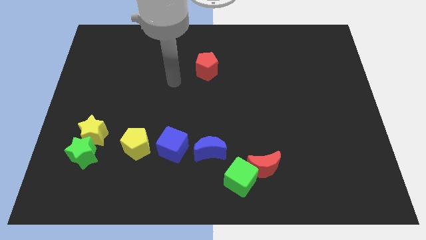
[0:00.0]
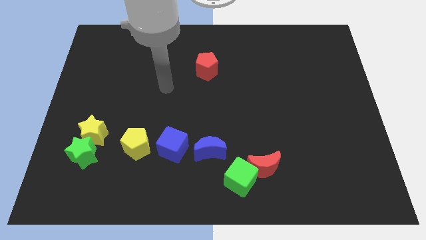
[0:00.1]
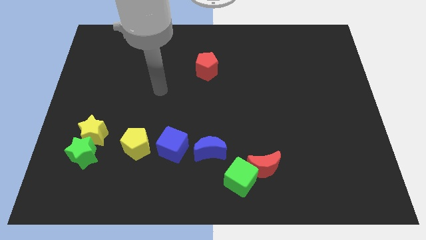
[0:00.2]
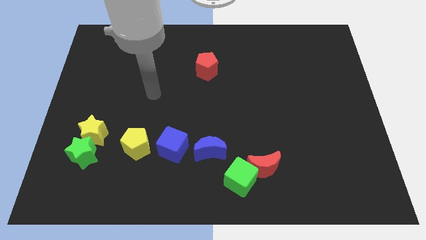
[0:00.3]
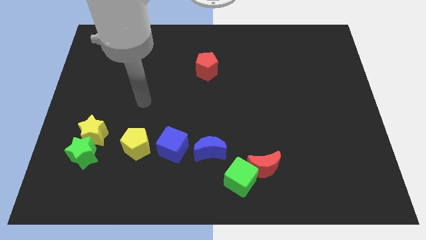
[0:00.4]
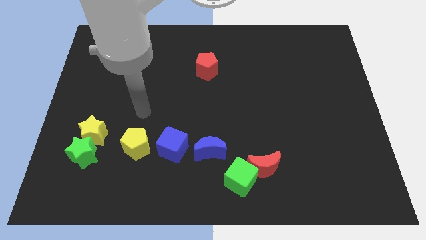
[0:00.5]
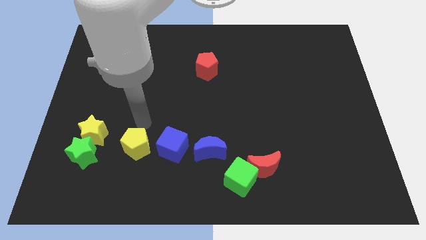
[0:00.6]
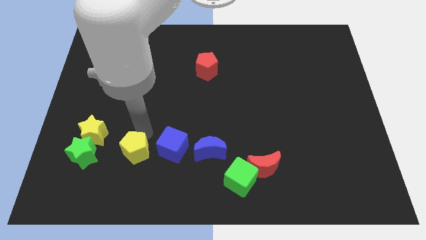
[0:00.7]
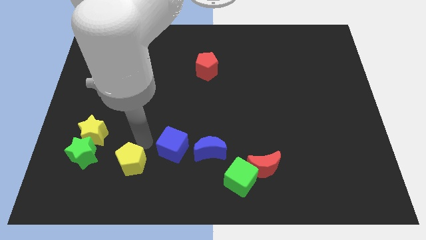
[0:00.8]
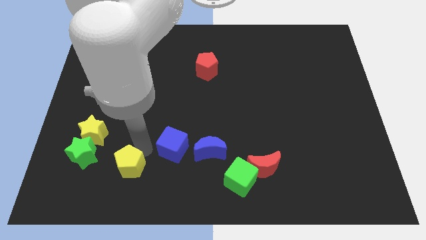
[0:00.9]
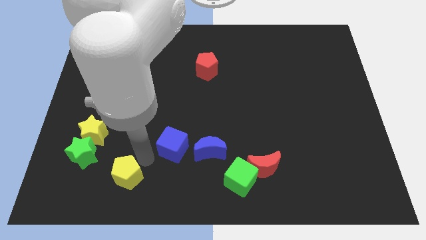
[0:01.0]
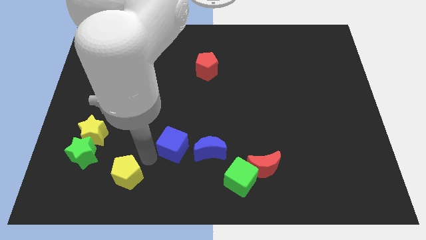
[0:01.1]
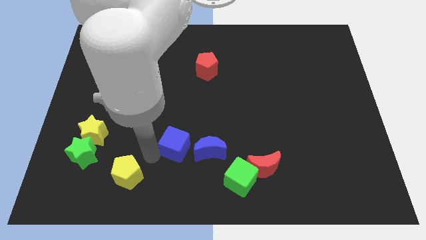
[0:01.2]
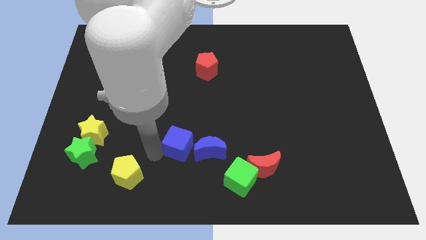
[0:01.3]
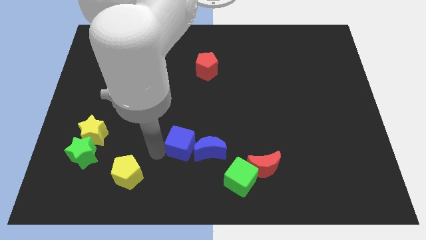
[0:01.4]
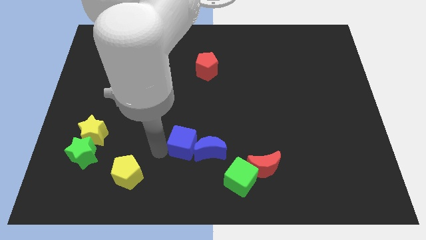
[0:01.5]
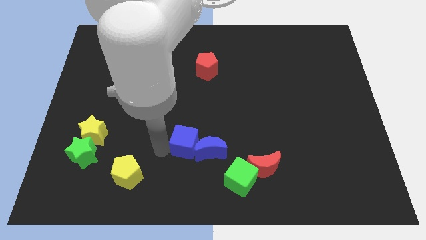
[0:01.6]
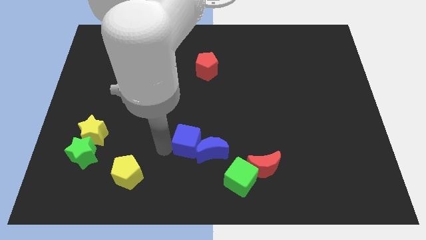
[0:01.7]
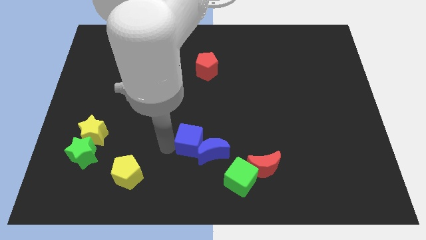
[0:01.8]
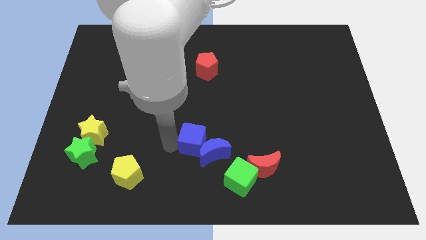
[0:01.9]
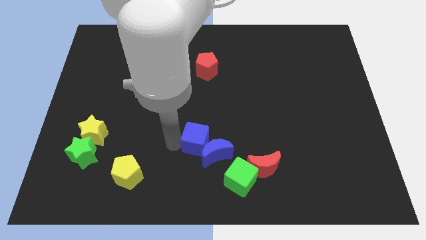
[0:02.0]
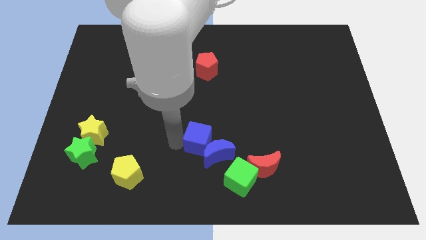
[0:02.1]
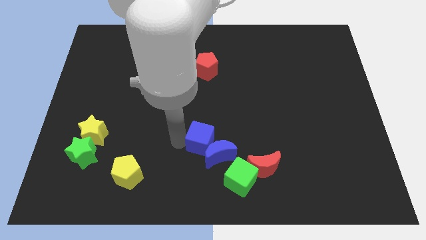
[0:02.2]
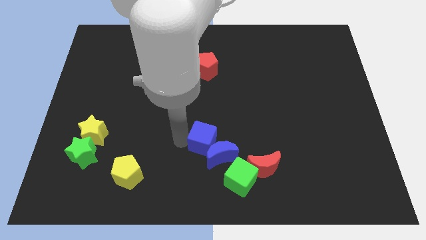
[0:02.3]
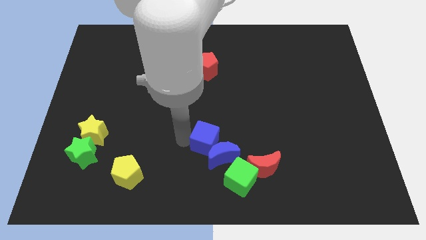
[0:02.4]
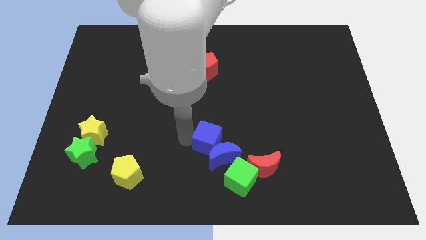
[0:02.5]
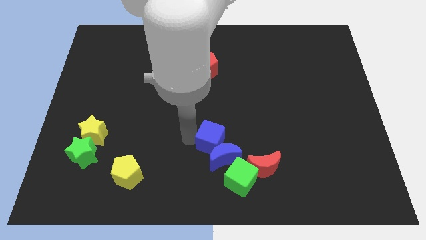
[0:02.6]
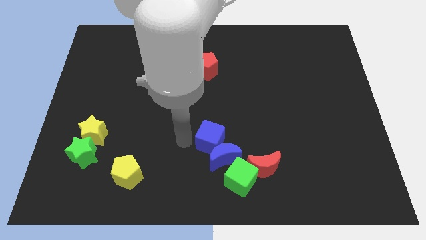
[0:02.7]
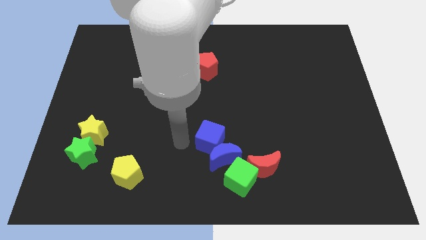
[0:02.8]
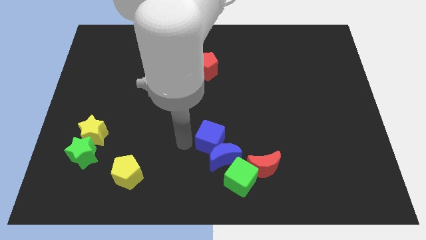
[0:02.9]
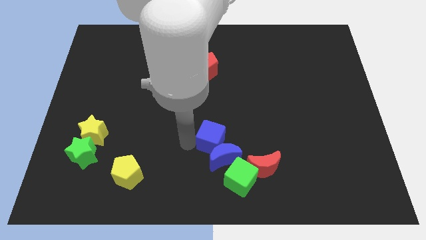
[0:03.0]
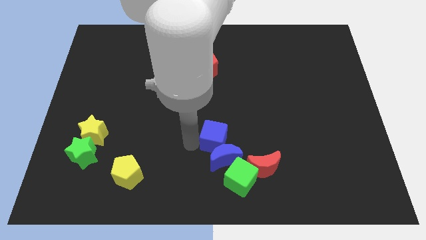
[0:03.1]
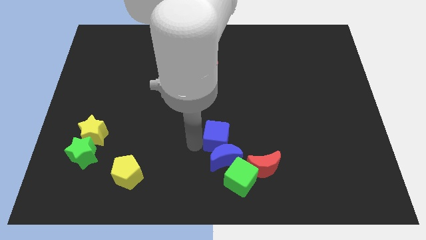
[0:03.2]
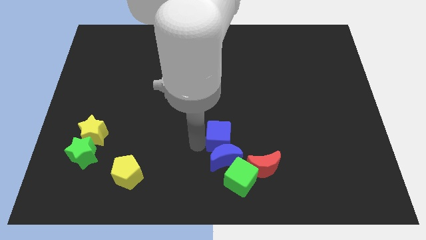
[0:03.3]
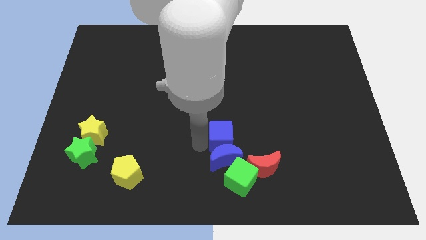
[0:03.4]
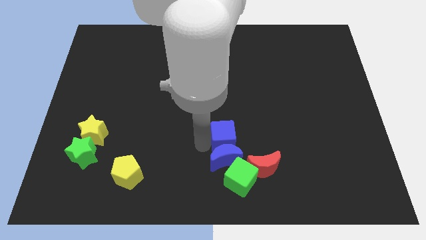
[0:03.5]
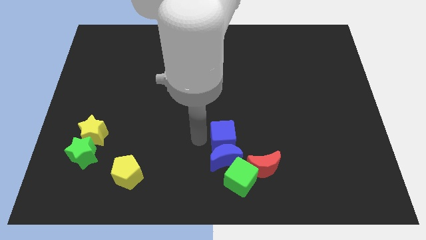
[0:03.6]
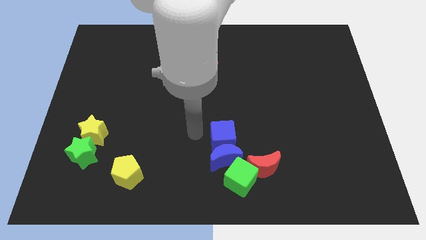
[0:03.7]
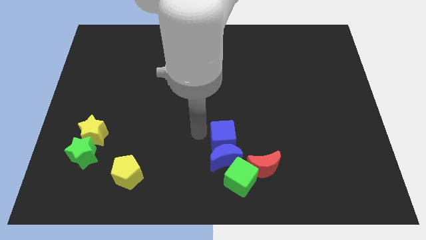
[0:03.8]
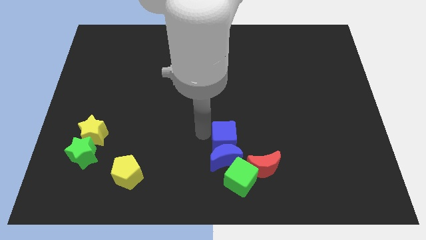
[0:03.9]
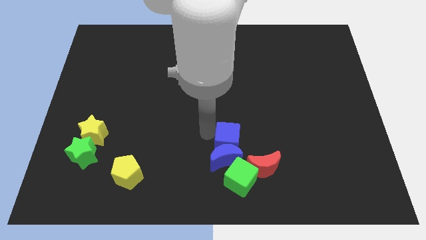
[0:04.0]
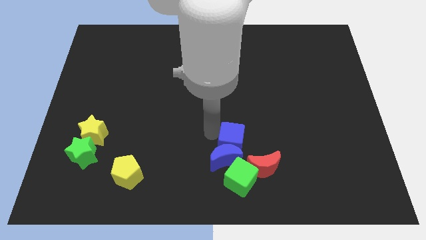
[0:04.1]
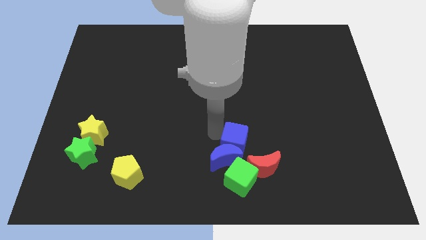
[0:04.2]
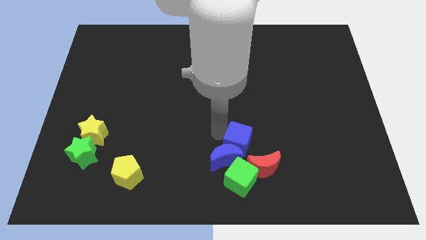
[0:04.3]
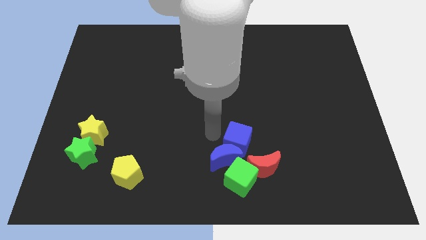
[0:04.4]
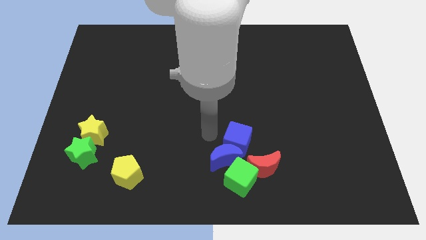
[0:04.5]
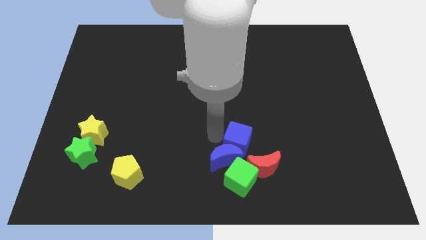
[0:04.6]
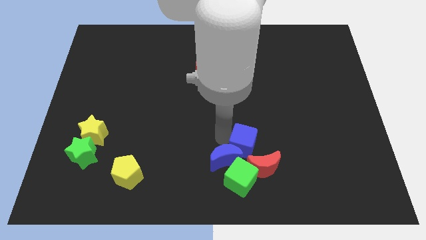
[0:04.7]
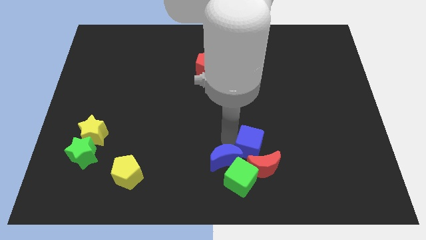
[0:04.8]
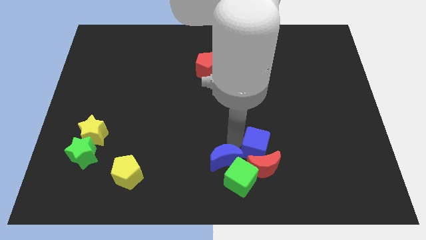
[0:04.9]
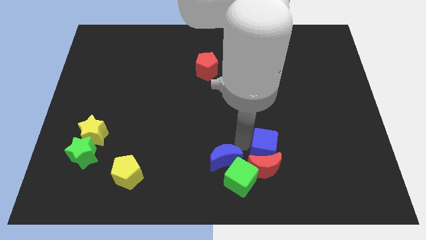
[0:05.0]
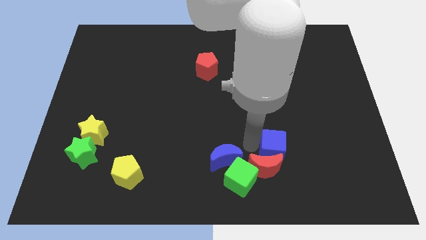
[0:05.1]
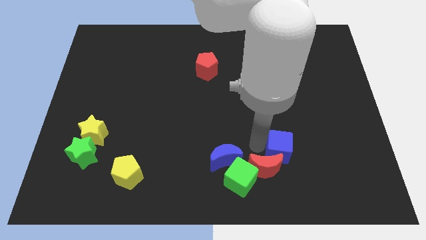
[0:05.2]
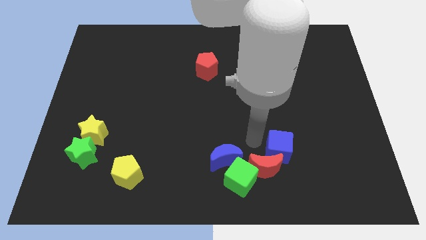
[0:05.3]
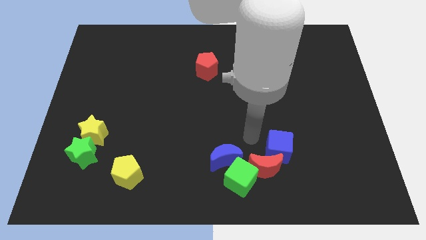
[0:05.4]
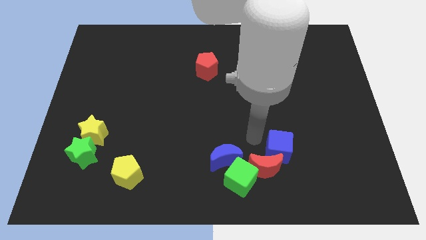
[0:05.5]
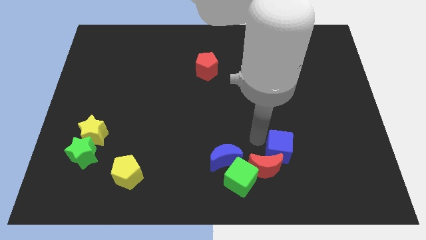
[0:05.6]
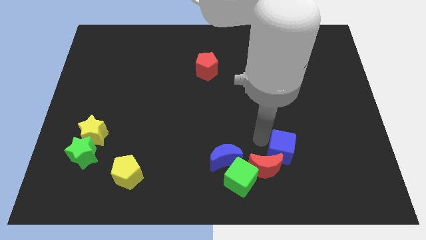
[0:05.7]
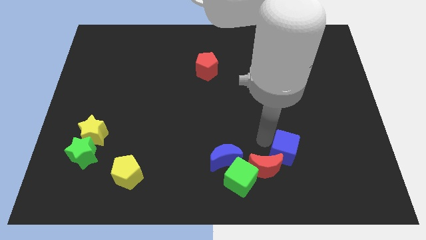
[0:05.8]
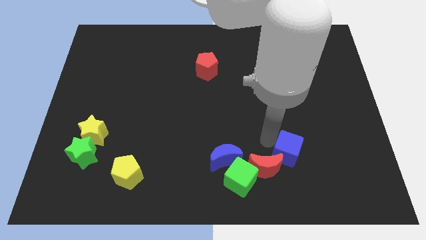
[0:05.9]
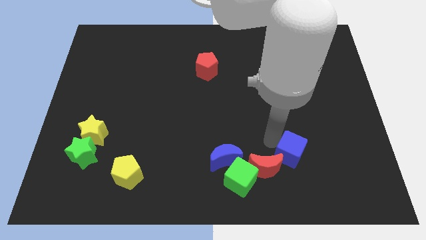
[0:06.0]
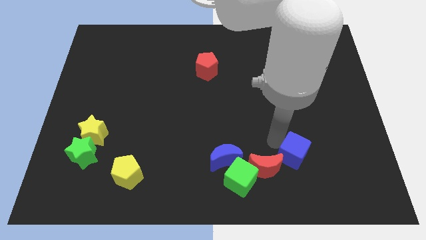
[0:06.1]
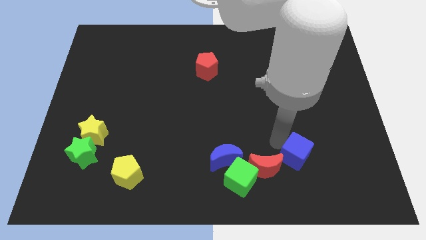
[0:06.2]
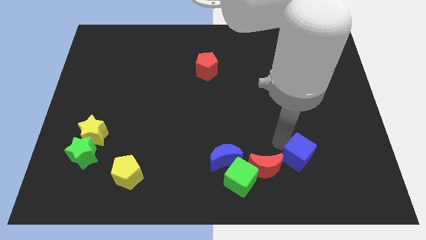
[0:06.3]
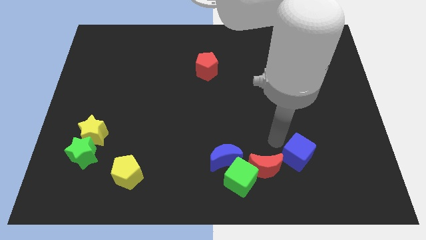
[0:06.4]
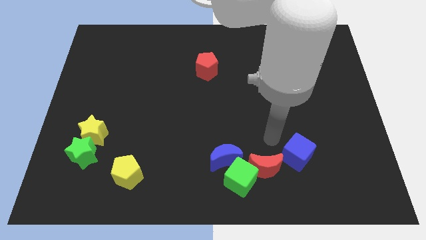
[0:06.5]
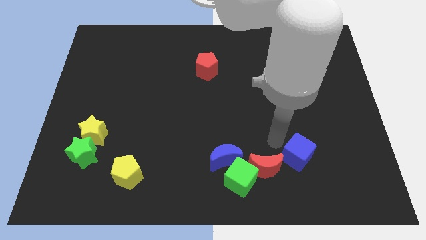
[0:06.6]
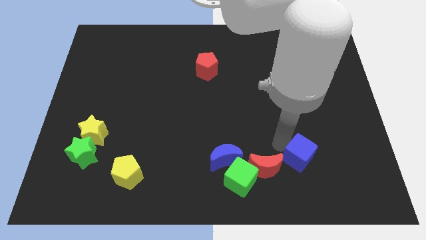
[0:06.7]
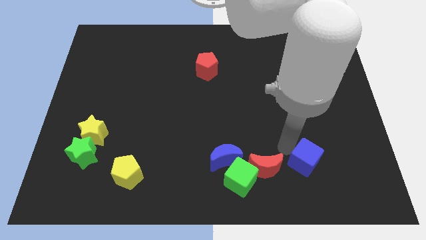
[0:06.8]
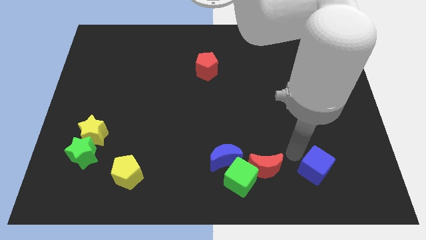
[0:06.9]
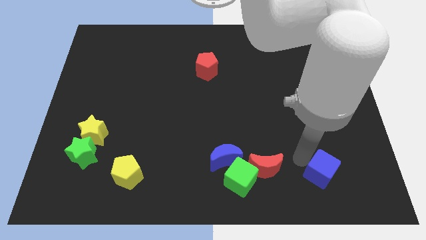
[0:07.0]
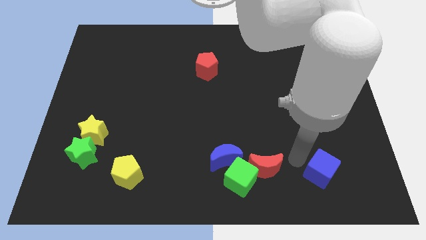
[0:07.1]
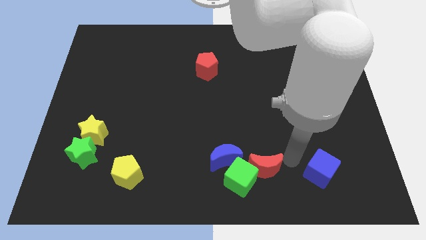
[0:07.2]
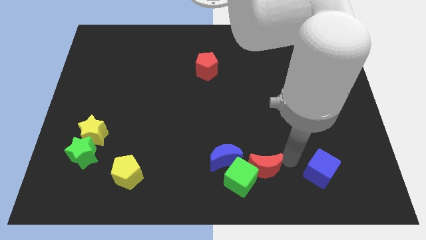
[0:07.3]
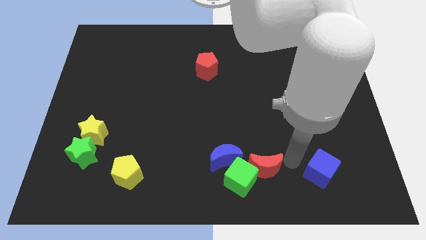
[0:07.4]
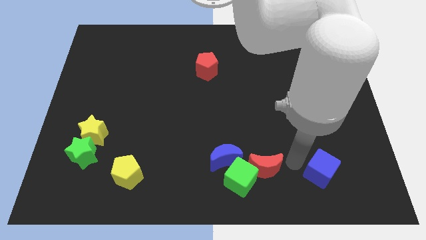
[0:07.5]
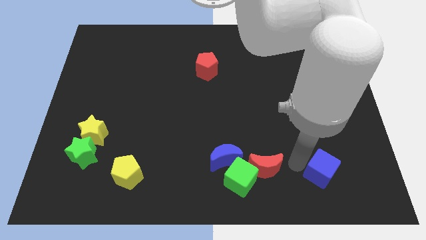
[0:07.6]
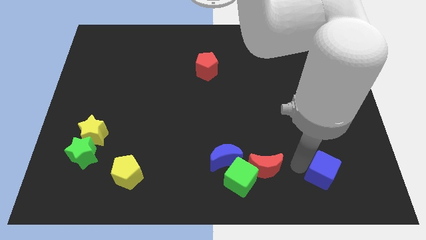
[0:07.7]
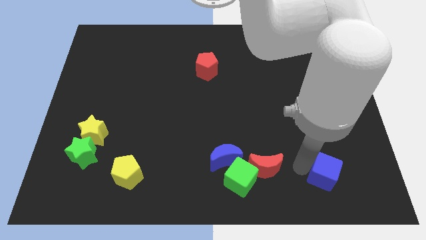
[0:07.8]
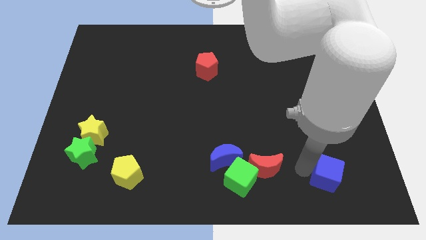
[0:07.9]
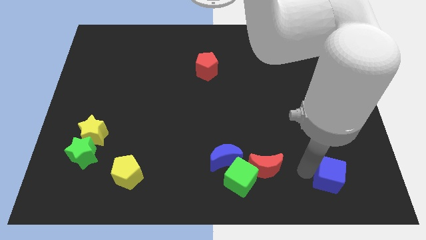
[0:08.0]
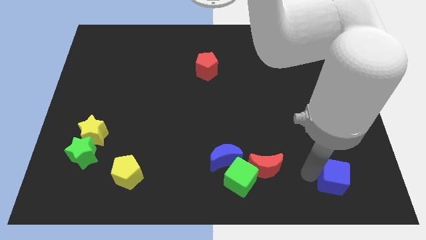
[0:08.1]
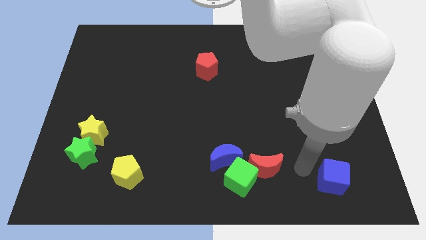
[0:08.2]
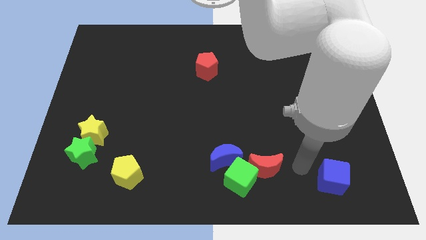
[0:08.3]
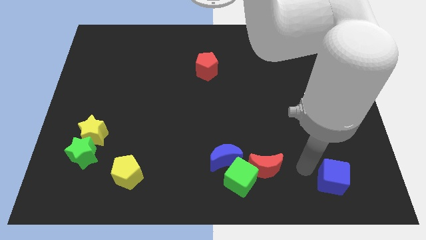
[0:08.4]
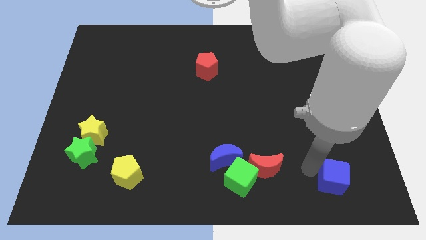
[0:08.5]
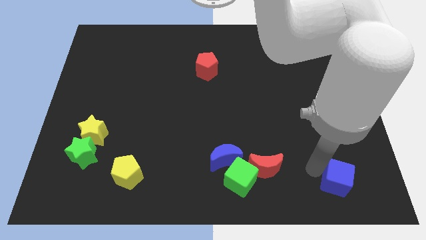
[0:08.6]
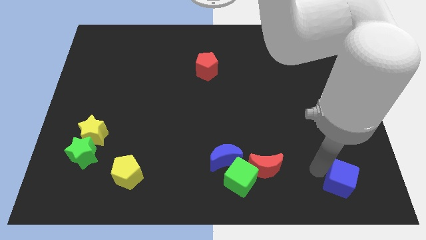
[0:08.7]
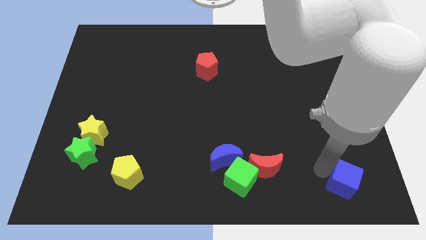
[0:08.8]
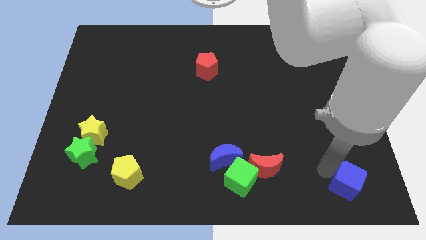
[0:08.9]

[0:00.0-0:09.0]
slide the blue cube to the bottom right corner
